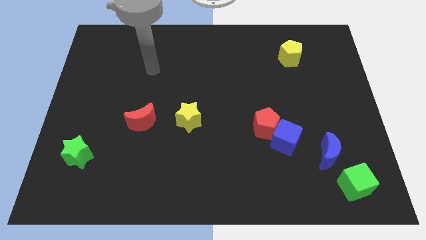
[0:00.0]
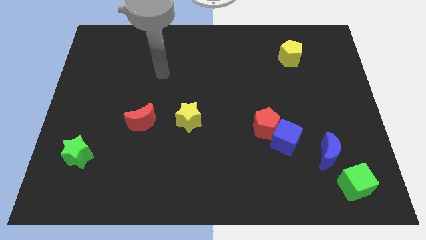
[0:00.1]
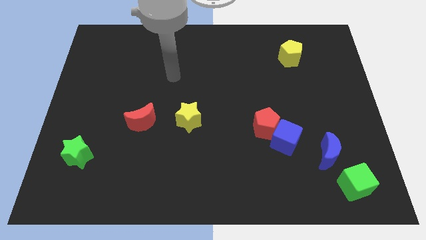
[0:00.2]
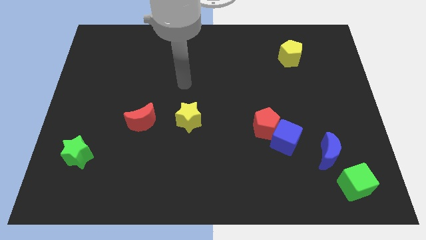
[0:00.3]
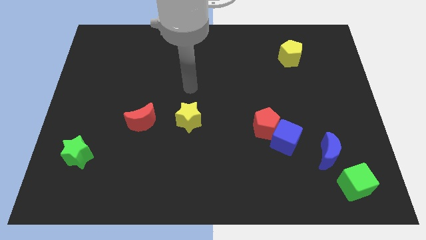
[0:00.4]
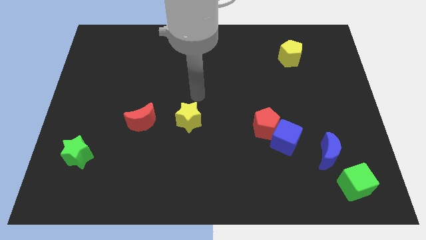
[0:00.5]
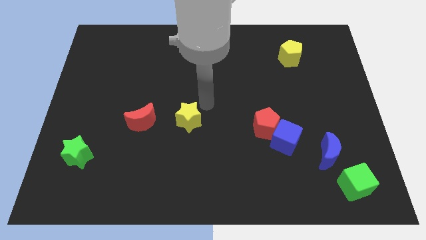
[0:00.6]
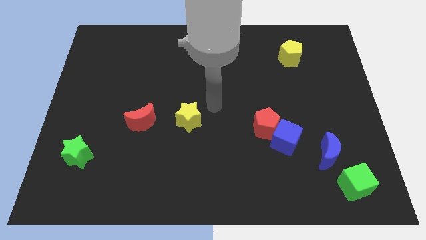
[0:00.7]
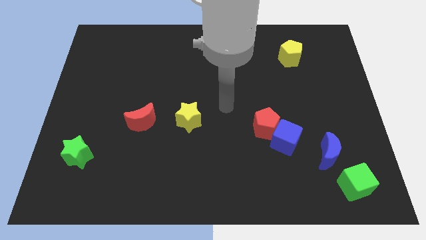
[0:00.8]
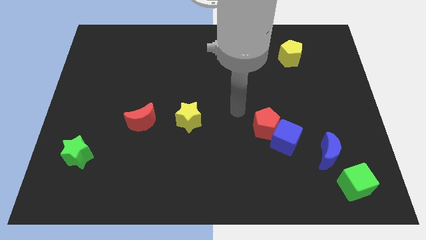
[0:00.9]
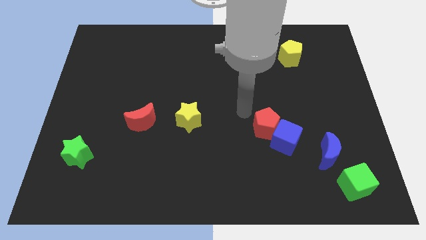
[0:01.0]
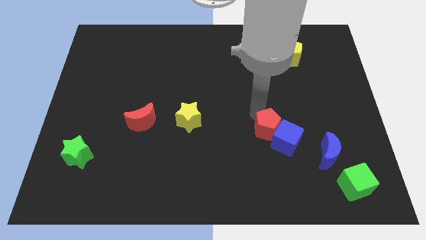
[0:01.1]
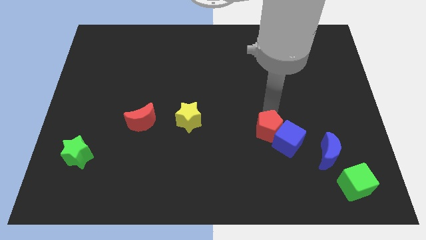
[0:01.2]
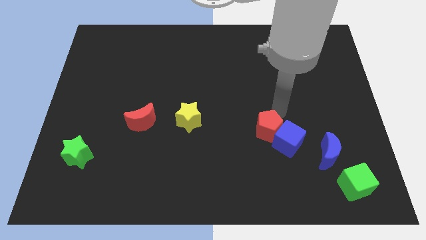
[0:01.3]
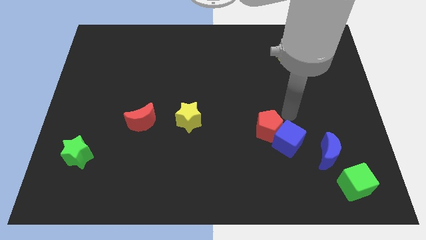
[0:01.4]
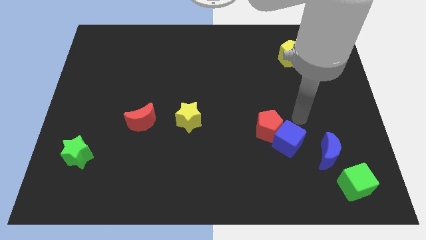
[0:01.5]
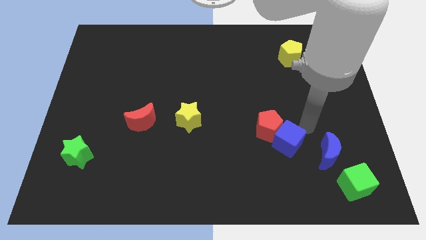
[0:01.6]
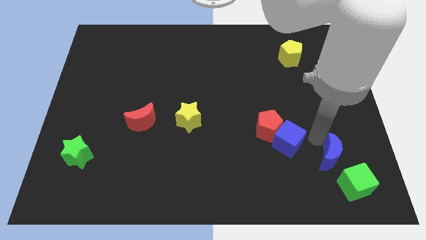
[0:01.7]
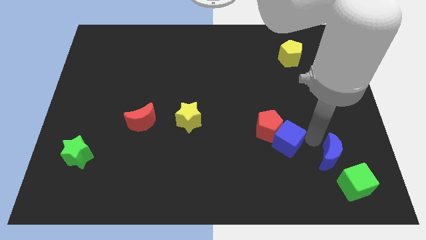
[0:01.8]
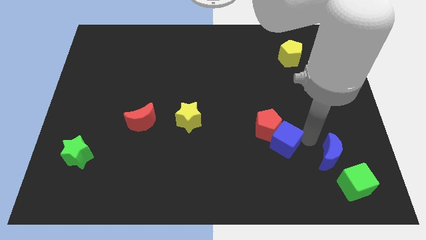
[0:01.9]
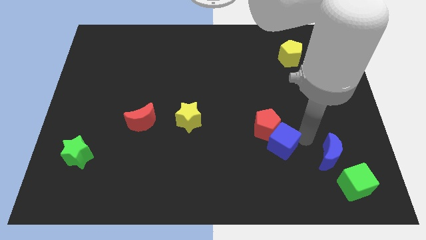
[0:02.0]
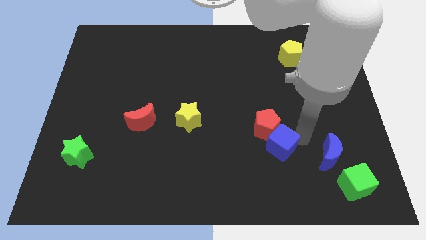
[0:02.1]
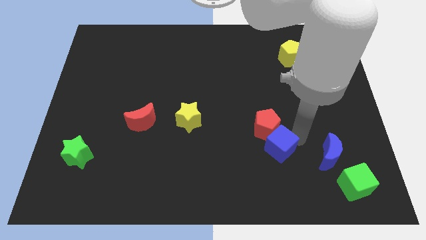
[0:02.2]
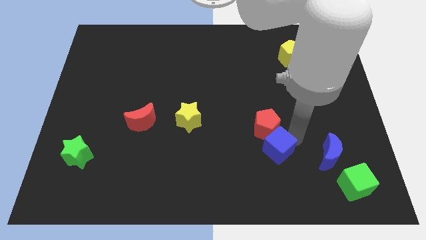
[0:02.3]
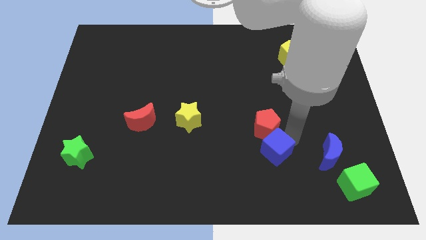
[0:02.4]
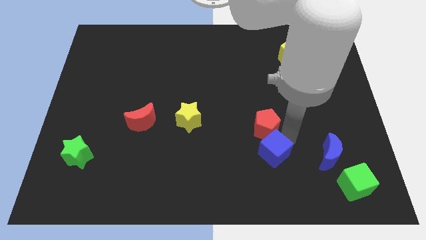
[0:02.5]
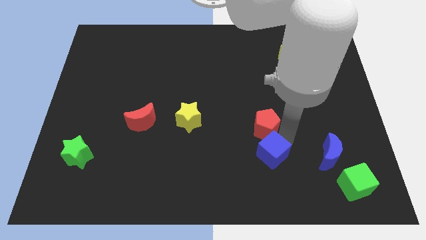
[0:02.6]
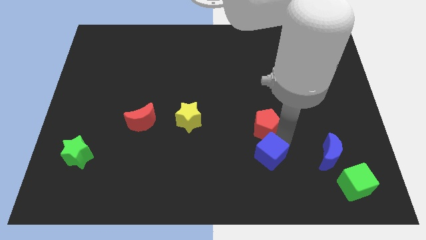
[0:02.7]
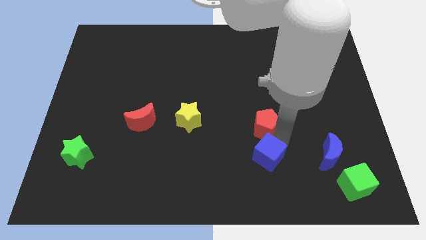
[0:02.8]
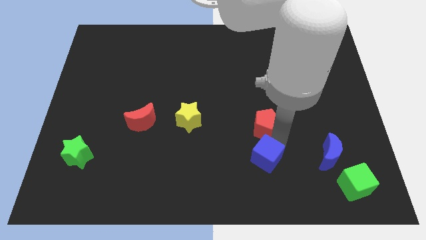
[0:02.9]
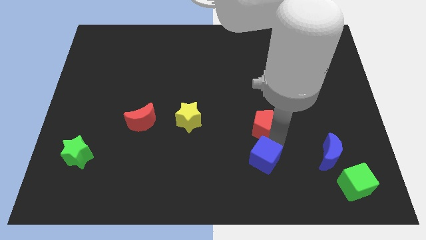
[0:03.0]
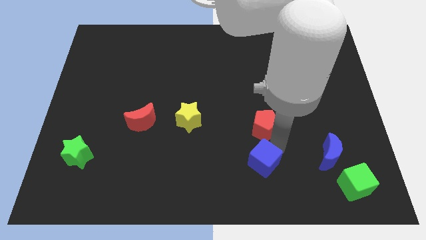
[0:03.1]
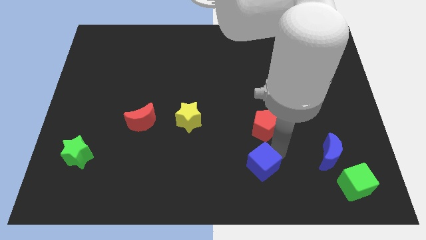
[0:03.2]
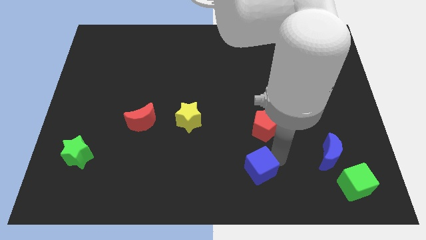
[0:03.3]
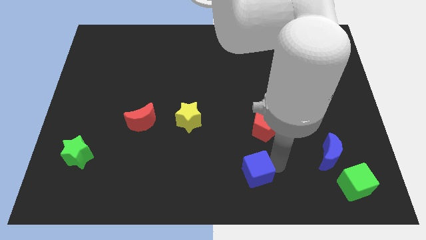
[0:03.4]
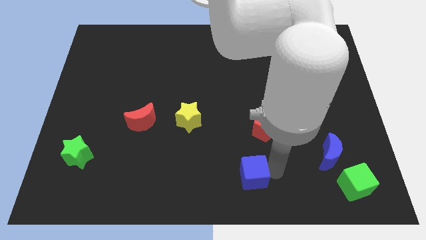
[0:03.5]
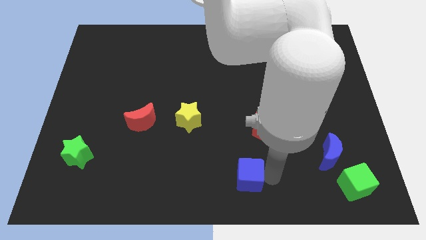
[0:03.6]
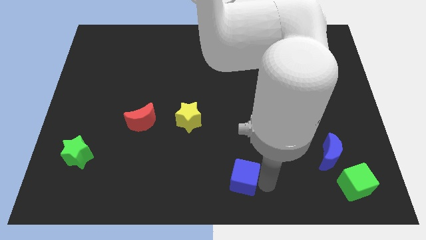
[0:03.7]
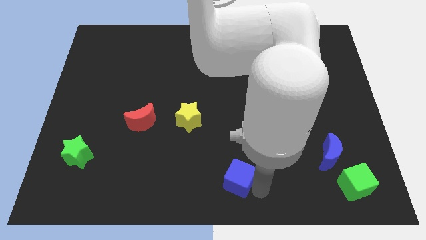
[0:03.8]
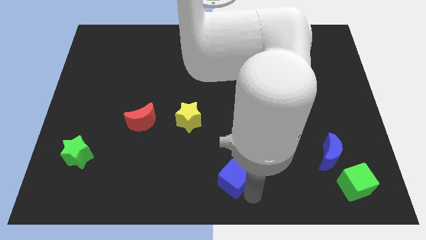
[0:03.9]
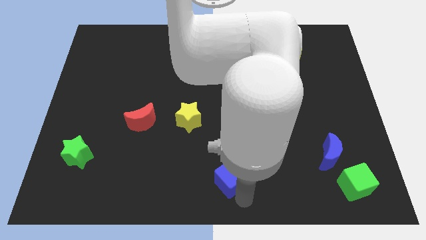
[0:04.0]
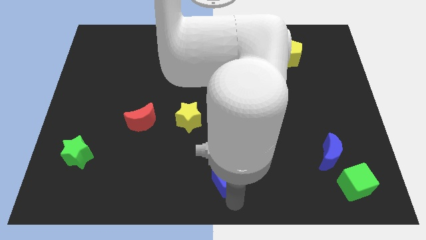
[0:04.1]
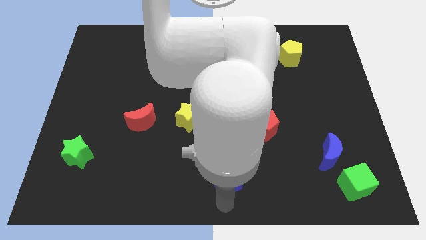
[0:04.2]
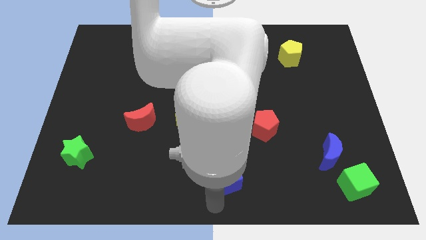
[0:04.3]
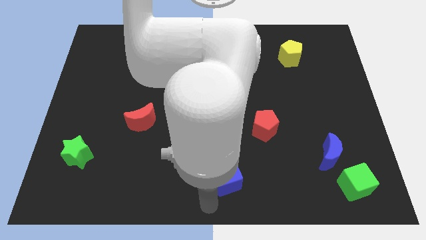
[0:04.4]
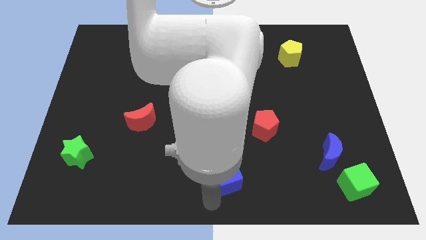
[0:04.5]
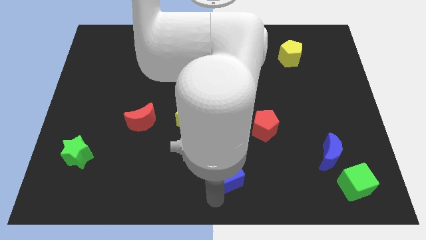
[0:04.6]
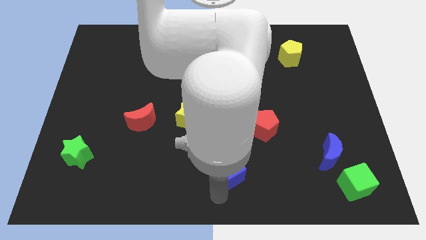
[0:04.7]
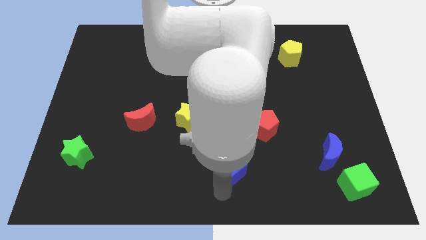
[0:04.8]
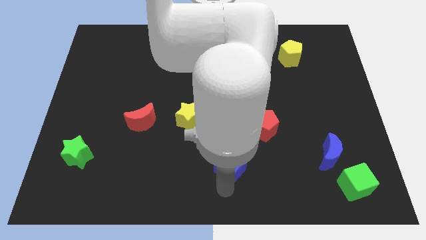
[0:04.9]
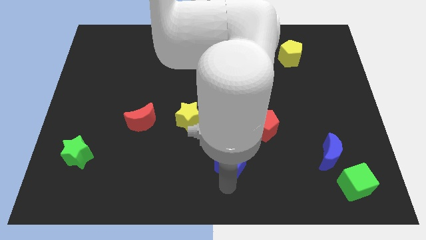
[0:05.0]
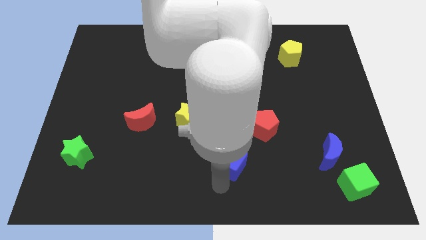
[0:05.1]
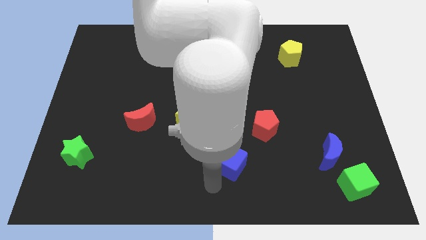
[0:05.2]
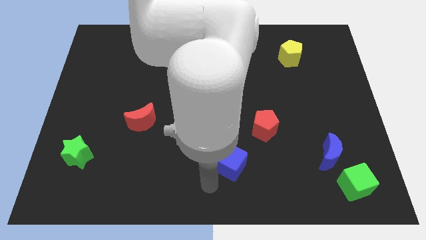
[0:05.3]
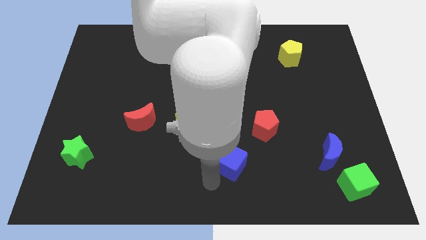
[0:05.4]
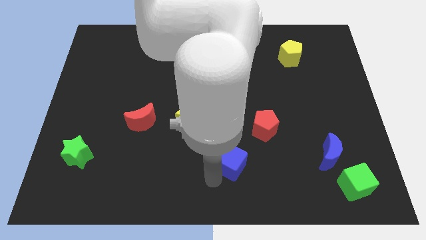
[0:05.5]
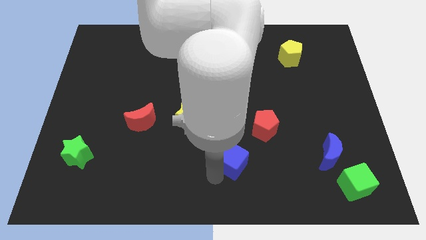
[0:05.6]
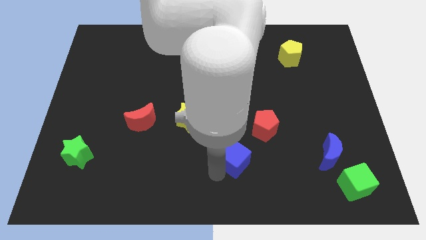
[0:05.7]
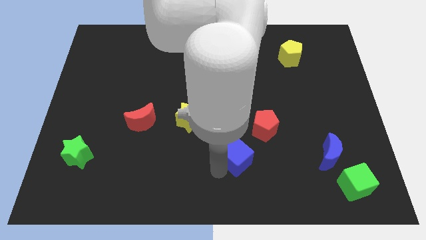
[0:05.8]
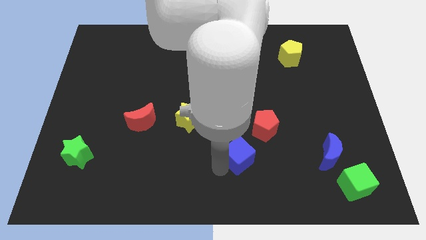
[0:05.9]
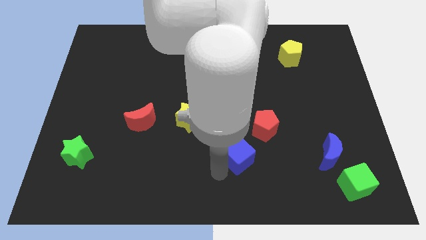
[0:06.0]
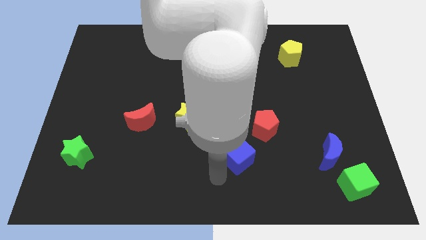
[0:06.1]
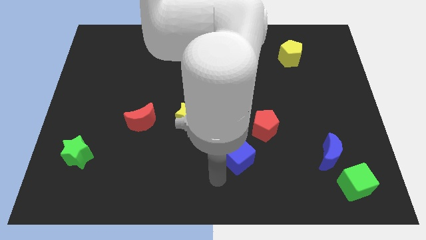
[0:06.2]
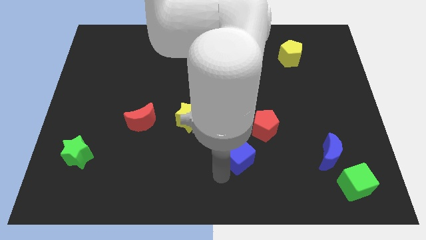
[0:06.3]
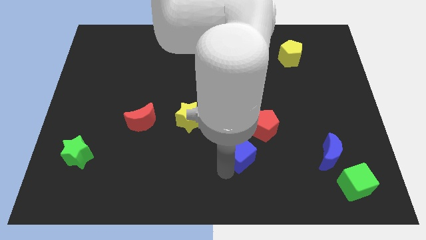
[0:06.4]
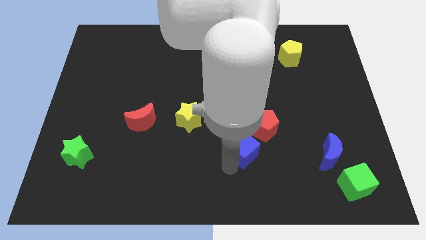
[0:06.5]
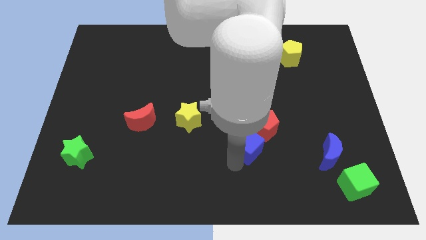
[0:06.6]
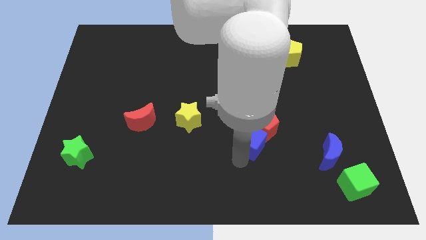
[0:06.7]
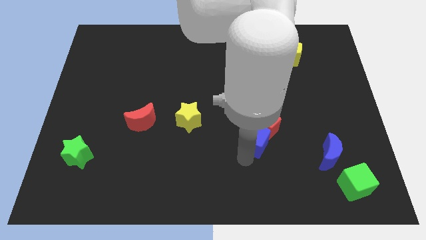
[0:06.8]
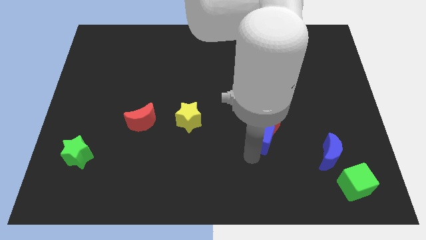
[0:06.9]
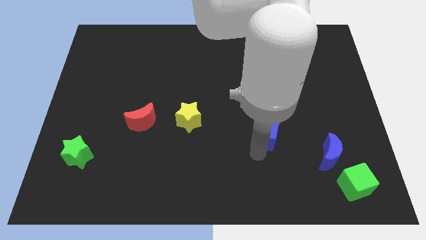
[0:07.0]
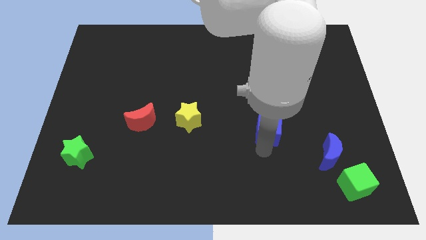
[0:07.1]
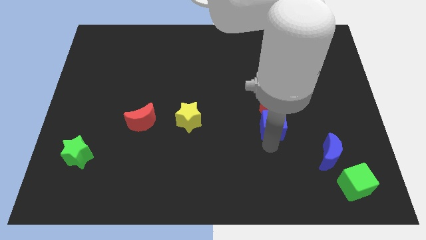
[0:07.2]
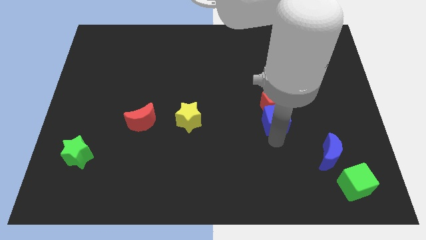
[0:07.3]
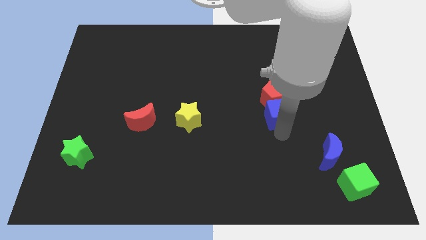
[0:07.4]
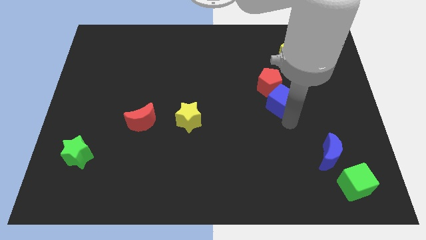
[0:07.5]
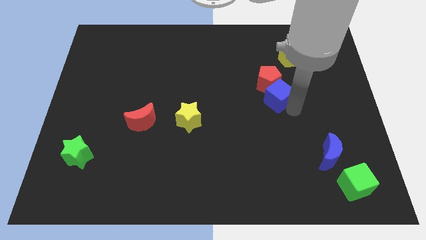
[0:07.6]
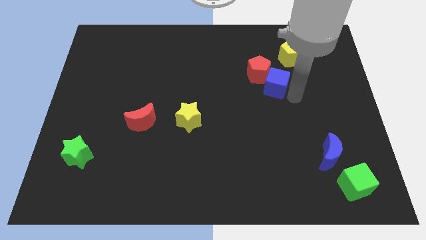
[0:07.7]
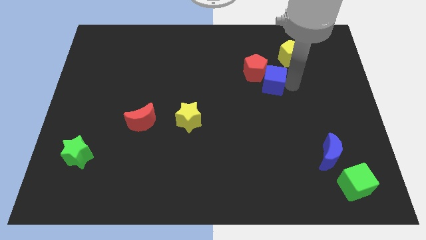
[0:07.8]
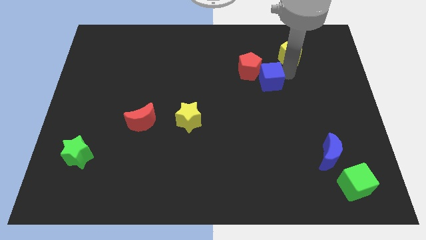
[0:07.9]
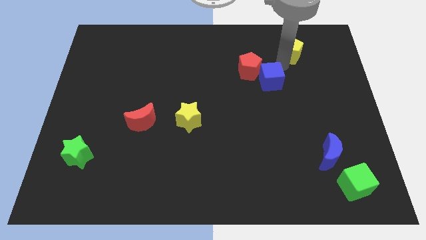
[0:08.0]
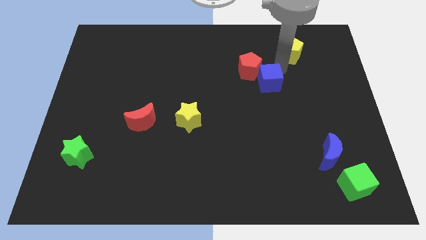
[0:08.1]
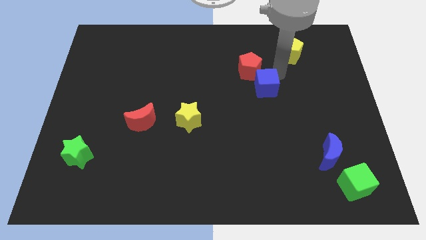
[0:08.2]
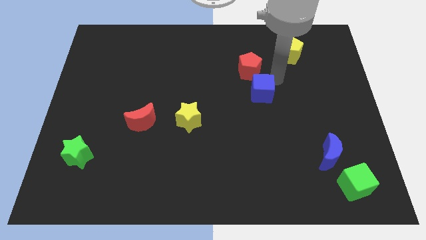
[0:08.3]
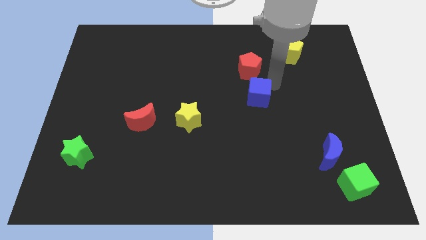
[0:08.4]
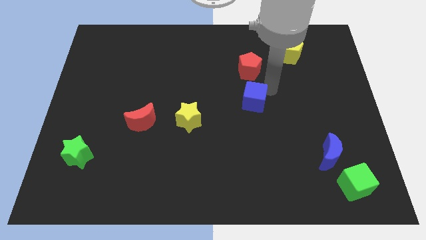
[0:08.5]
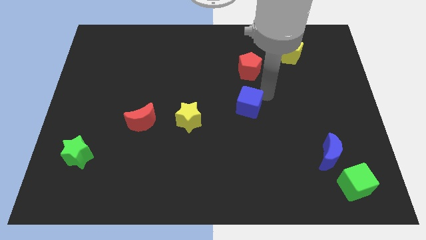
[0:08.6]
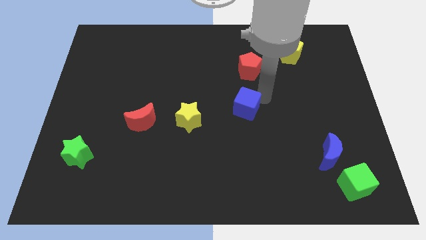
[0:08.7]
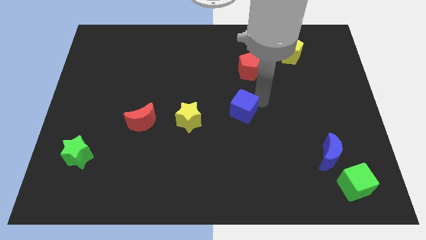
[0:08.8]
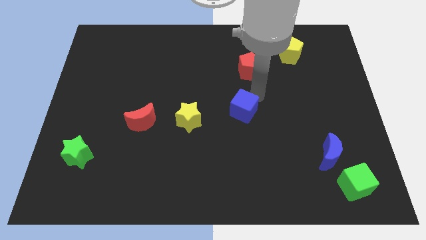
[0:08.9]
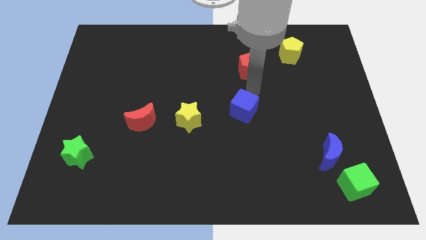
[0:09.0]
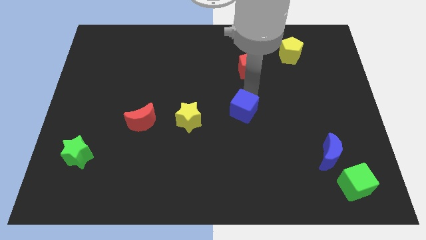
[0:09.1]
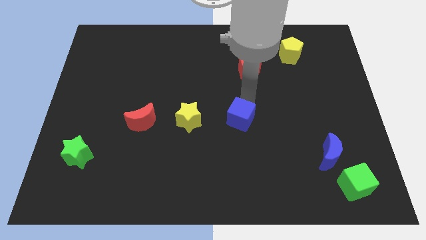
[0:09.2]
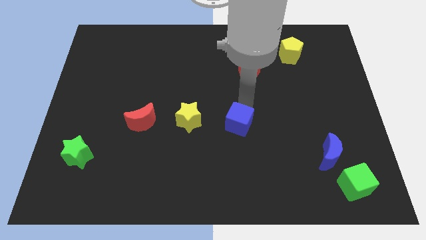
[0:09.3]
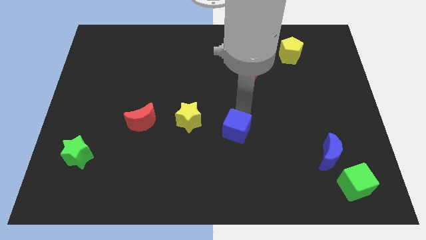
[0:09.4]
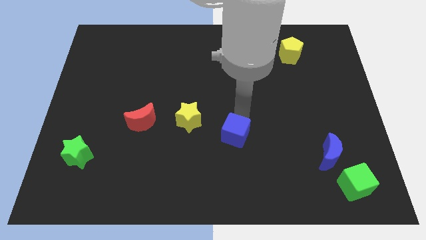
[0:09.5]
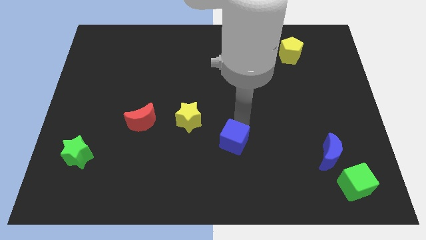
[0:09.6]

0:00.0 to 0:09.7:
put the blue cube to the bottom right of the yellow star
